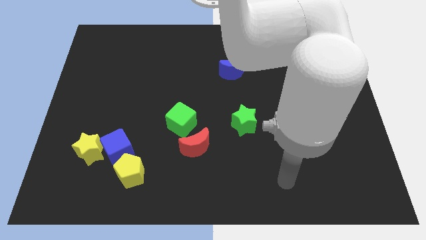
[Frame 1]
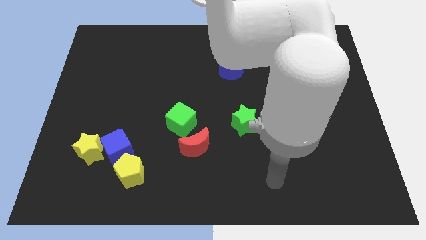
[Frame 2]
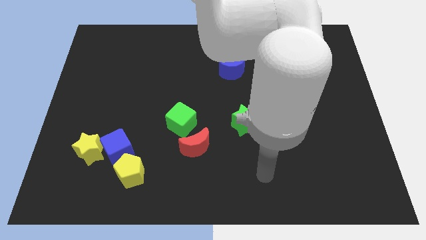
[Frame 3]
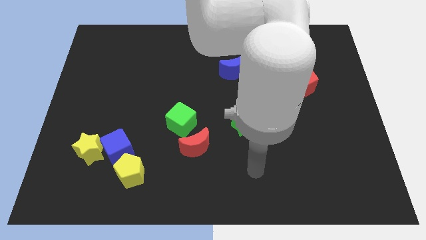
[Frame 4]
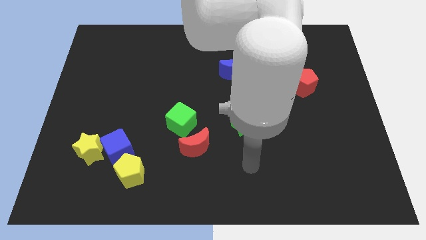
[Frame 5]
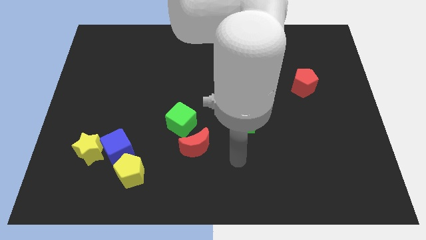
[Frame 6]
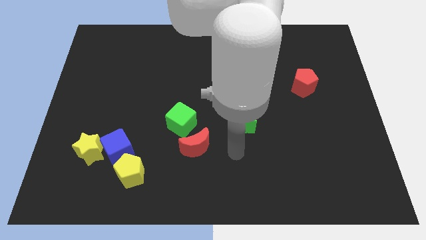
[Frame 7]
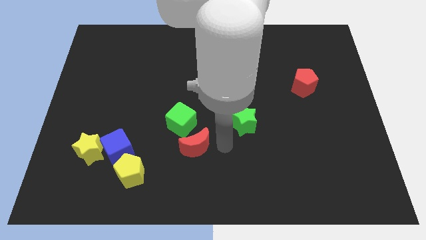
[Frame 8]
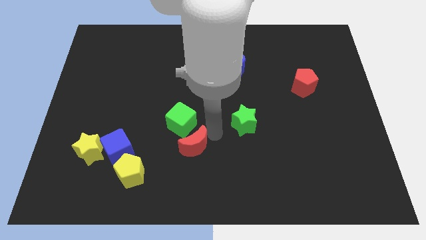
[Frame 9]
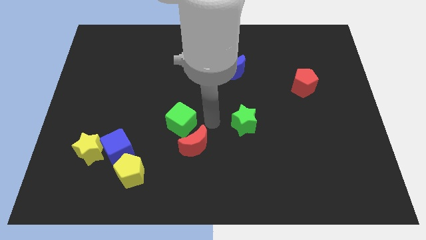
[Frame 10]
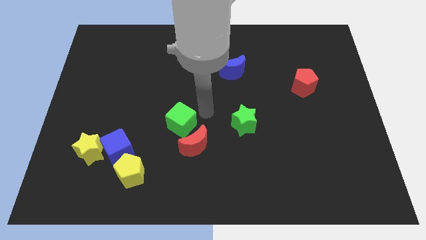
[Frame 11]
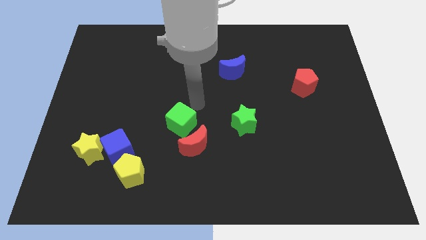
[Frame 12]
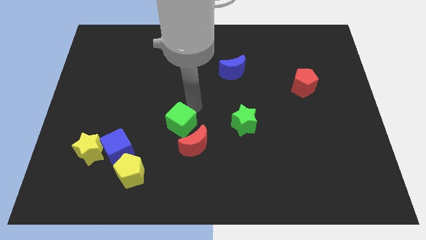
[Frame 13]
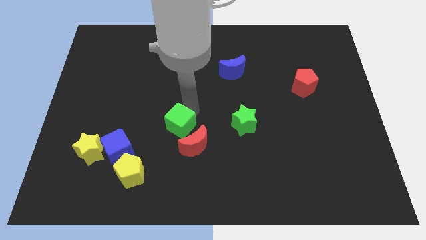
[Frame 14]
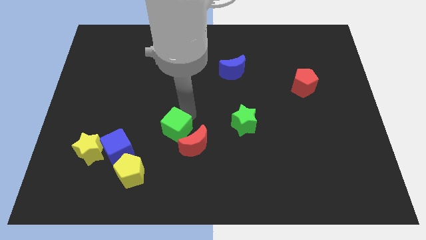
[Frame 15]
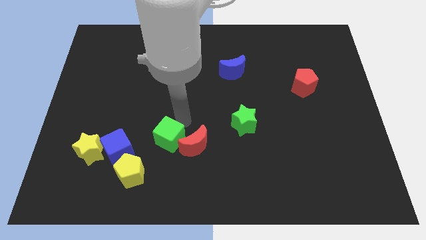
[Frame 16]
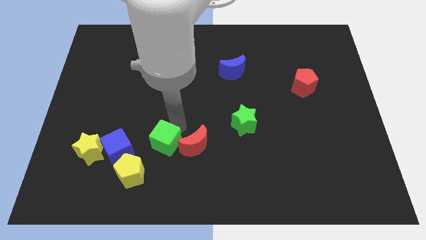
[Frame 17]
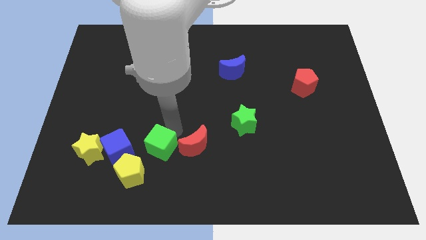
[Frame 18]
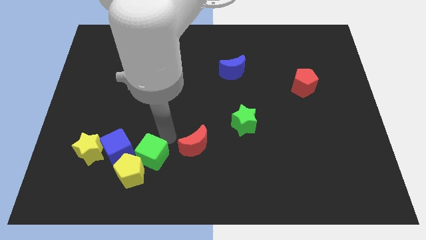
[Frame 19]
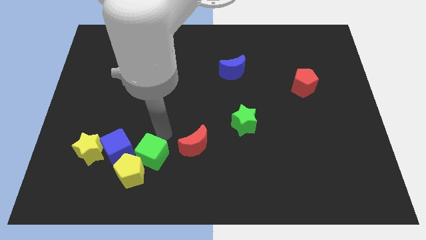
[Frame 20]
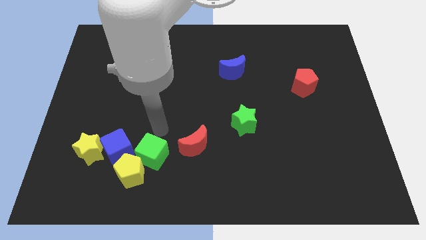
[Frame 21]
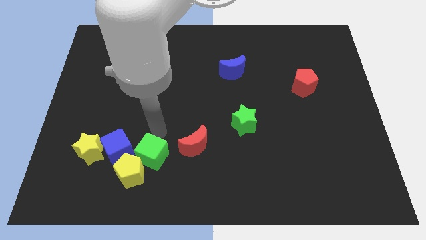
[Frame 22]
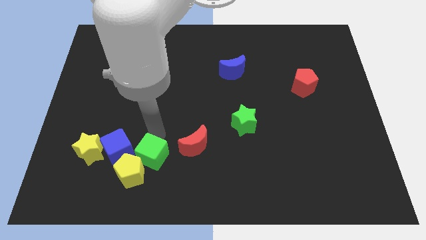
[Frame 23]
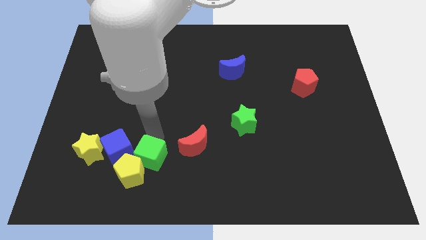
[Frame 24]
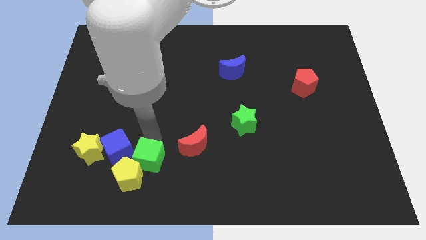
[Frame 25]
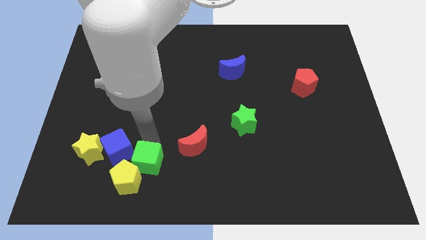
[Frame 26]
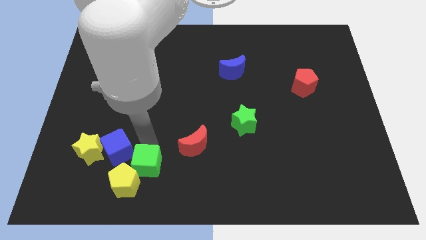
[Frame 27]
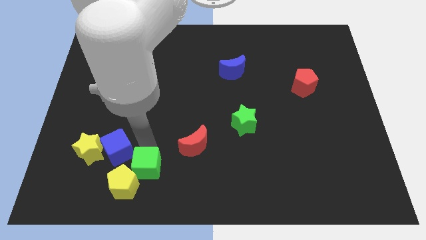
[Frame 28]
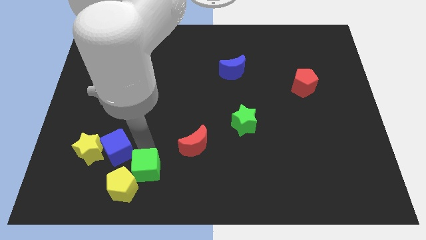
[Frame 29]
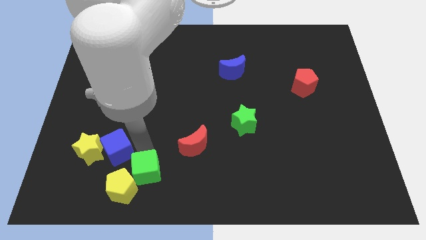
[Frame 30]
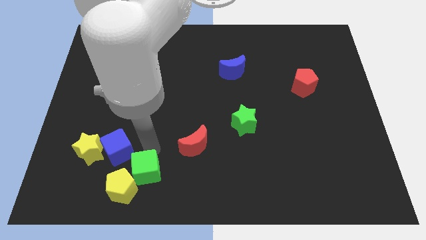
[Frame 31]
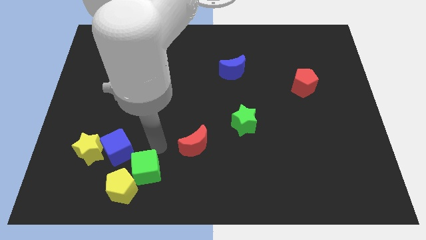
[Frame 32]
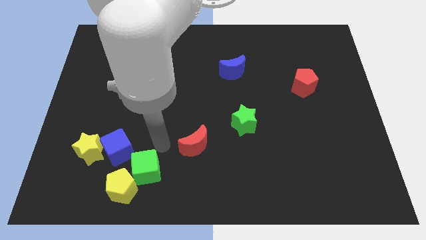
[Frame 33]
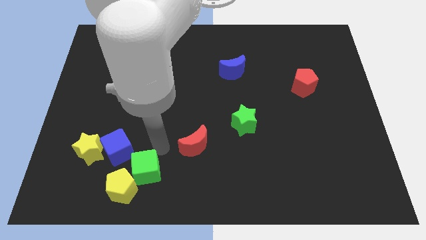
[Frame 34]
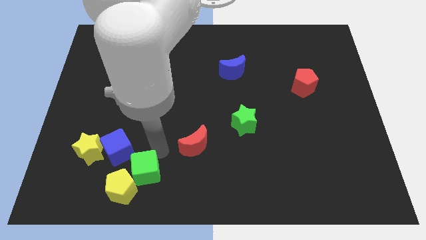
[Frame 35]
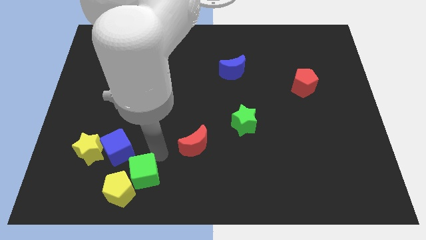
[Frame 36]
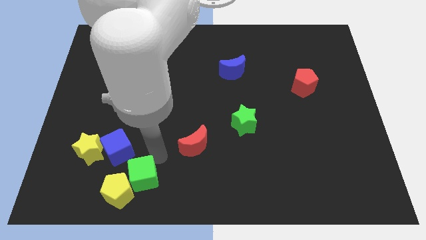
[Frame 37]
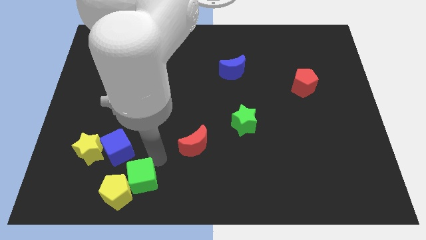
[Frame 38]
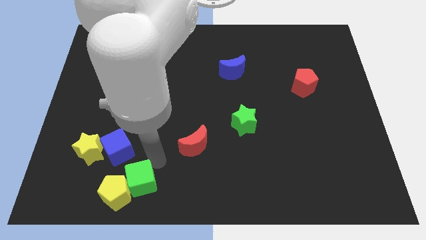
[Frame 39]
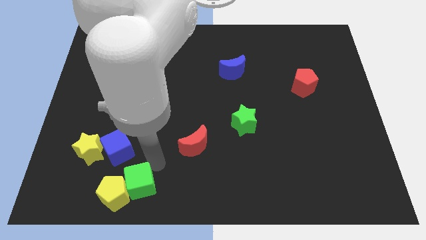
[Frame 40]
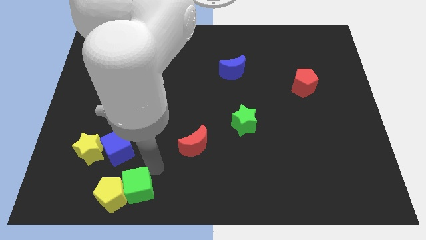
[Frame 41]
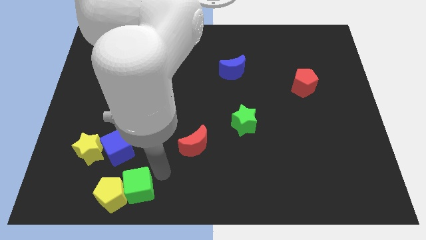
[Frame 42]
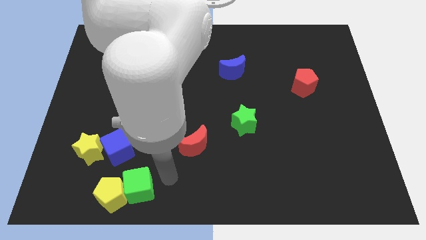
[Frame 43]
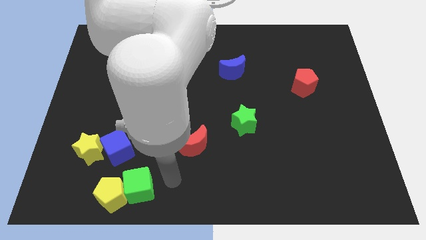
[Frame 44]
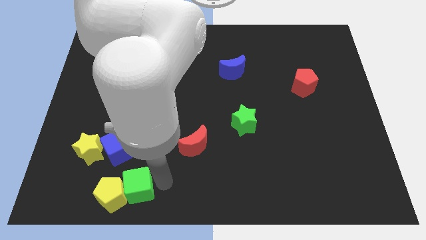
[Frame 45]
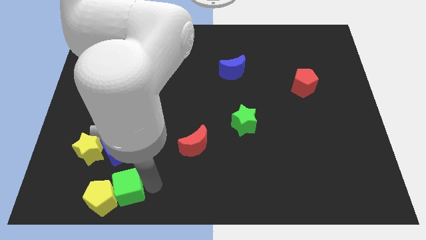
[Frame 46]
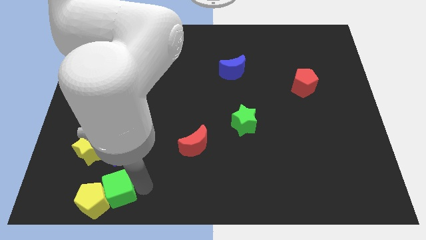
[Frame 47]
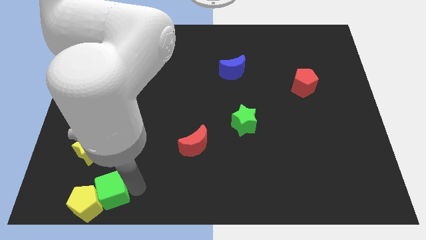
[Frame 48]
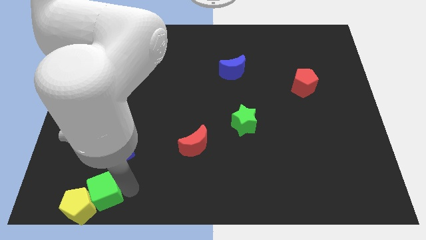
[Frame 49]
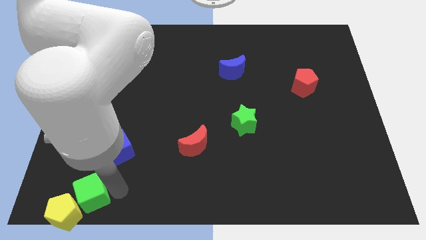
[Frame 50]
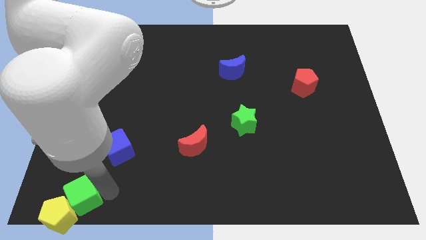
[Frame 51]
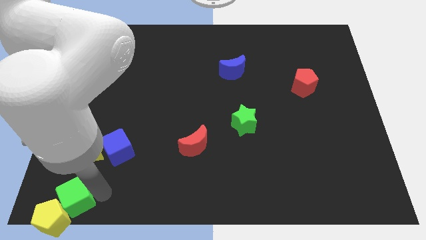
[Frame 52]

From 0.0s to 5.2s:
push the green cube to the bottom left of the board

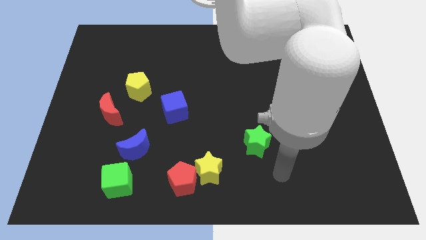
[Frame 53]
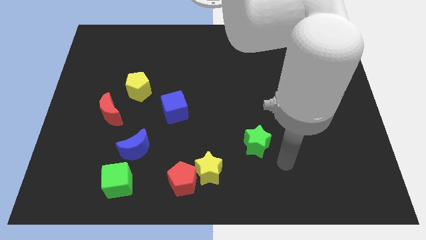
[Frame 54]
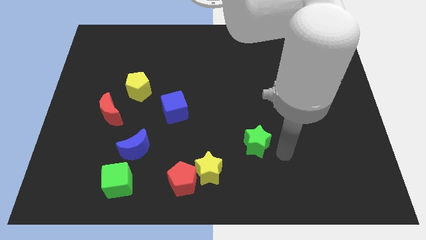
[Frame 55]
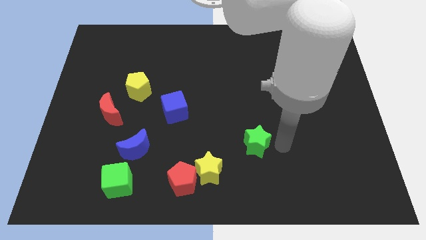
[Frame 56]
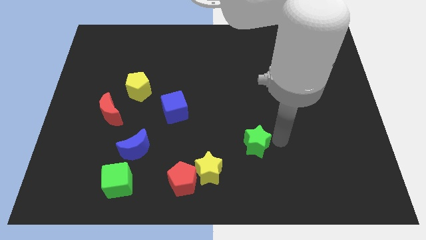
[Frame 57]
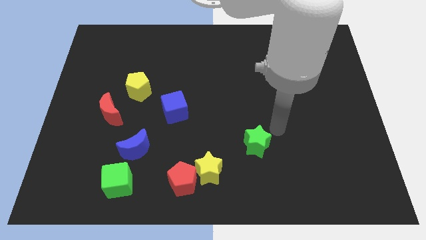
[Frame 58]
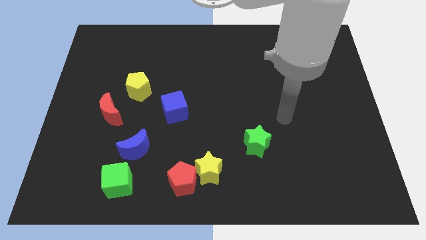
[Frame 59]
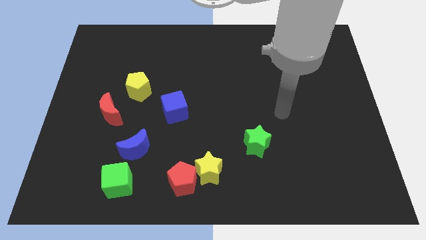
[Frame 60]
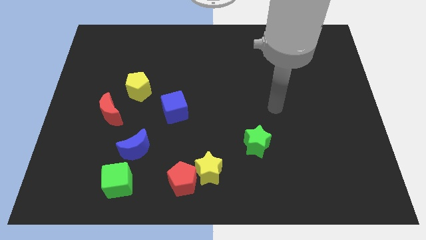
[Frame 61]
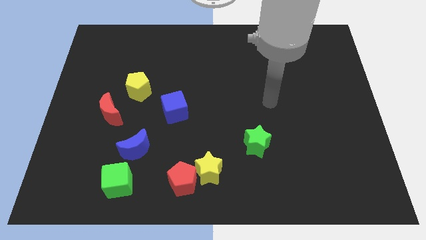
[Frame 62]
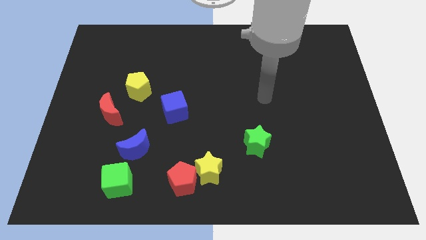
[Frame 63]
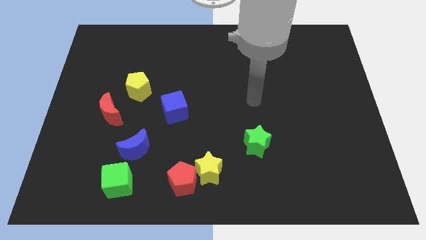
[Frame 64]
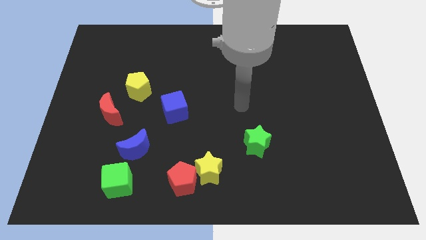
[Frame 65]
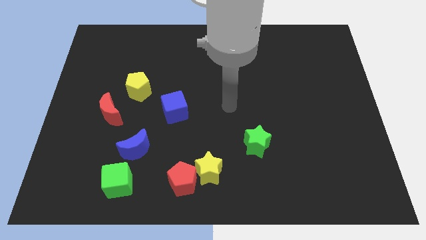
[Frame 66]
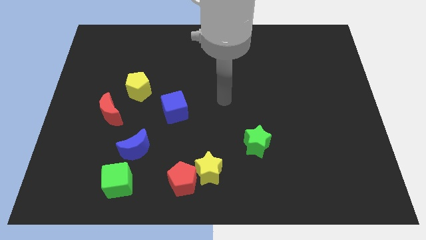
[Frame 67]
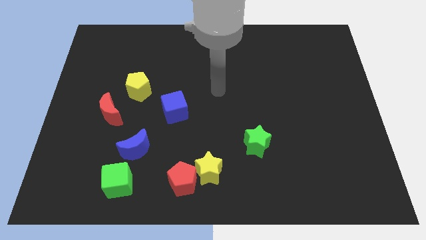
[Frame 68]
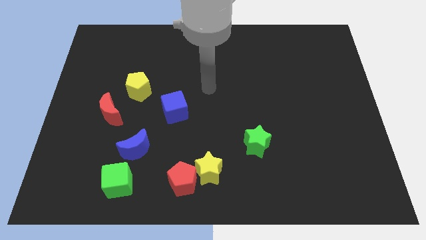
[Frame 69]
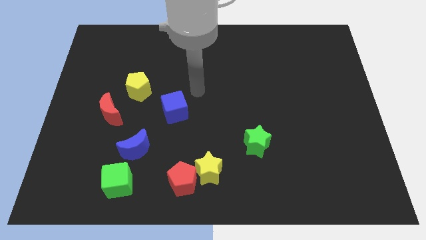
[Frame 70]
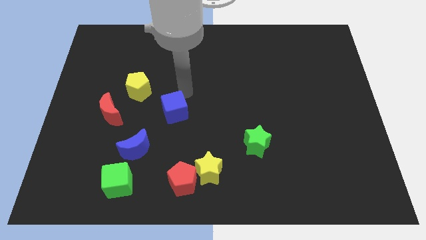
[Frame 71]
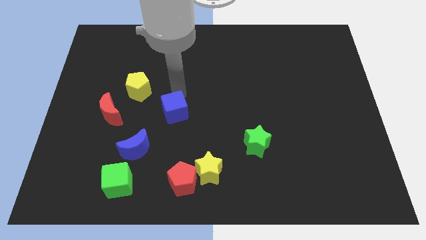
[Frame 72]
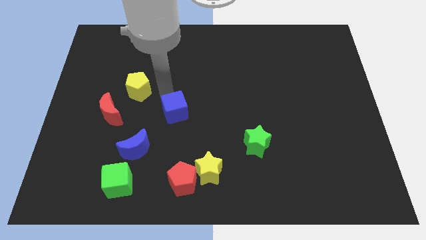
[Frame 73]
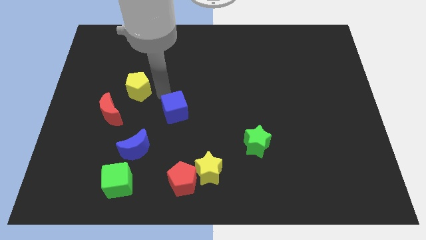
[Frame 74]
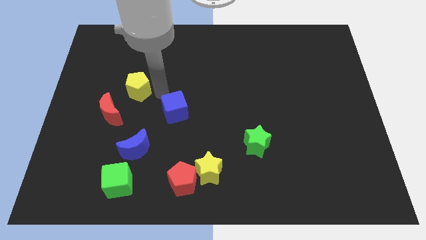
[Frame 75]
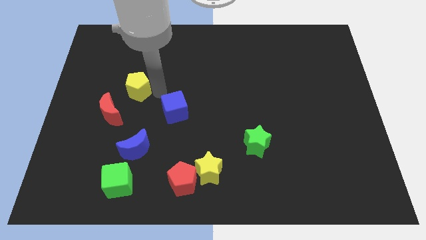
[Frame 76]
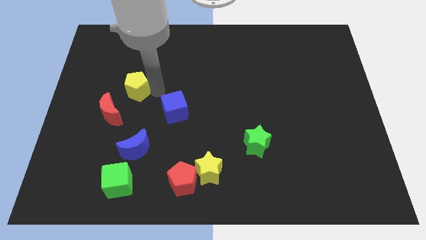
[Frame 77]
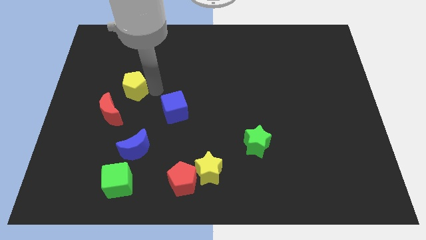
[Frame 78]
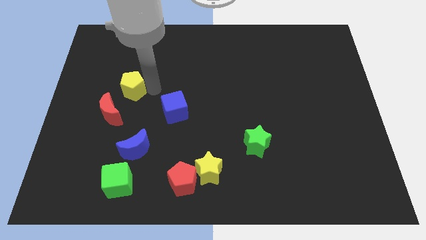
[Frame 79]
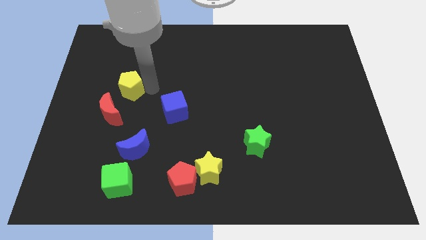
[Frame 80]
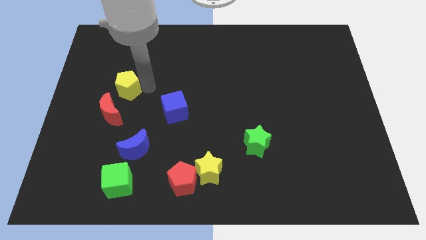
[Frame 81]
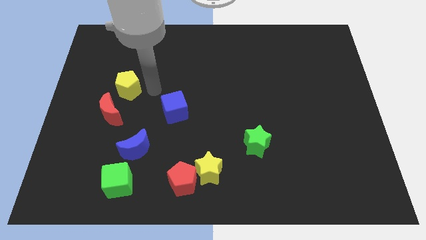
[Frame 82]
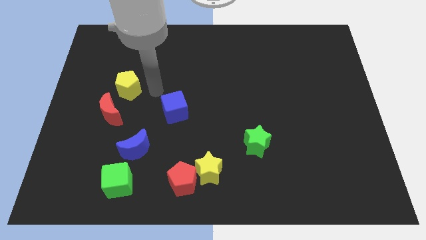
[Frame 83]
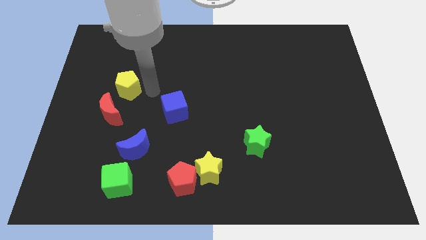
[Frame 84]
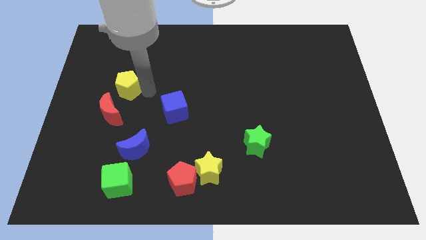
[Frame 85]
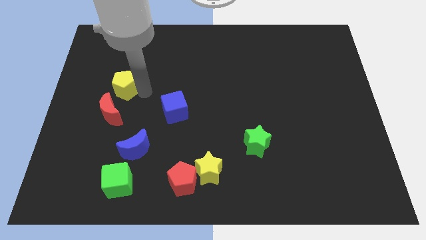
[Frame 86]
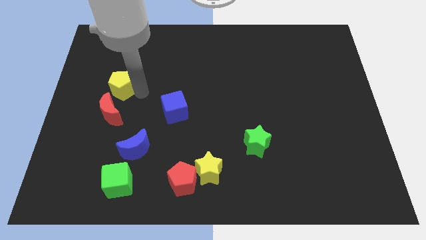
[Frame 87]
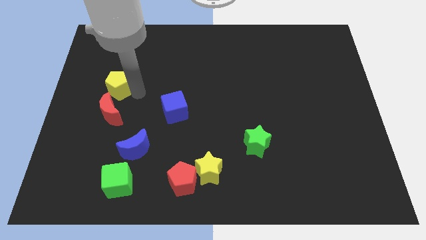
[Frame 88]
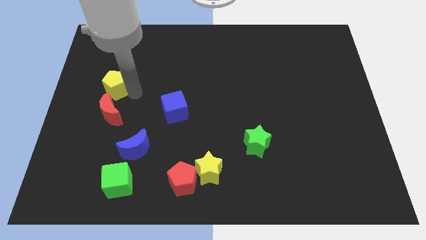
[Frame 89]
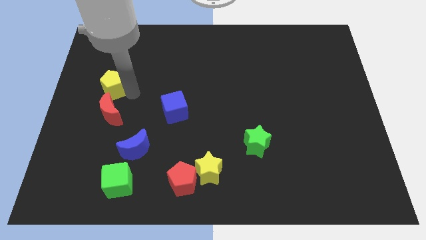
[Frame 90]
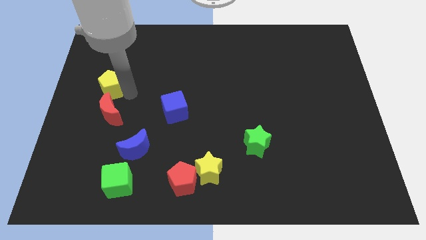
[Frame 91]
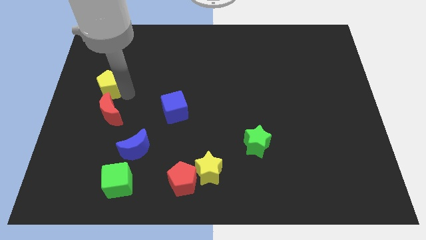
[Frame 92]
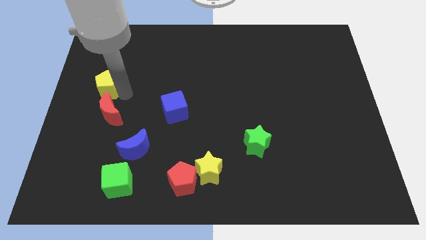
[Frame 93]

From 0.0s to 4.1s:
slide the yellow pentagon to the left side of the board
